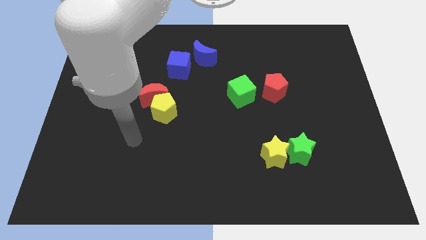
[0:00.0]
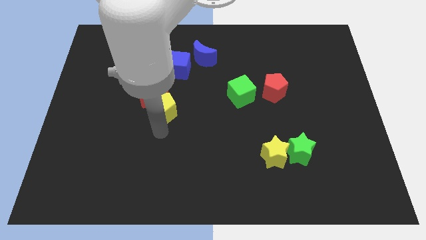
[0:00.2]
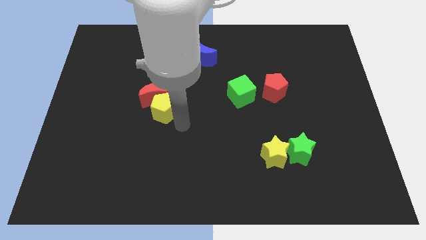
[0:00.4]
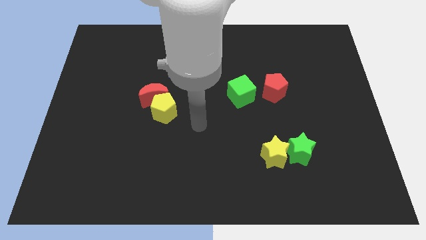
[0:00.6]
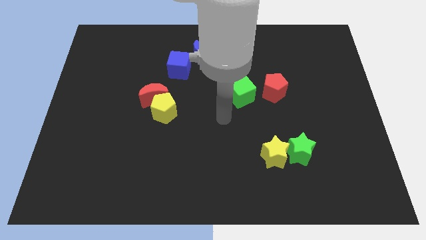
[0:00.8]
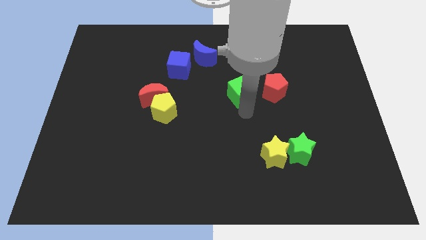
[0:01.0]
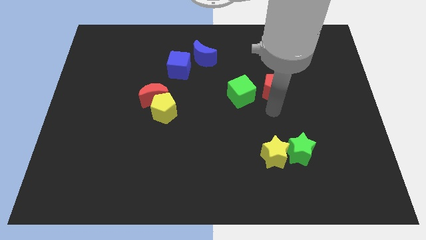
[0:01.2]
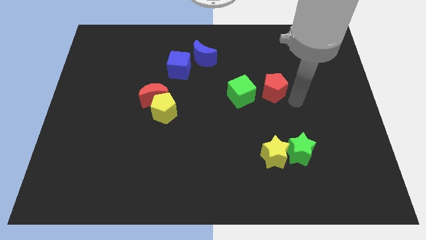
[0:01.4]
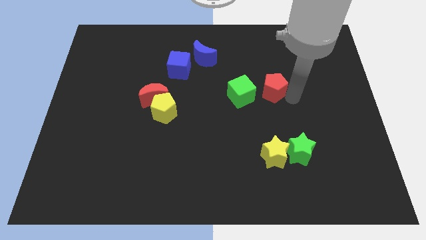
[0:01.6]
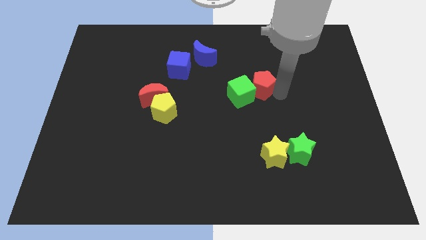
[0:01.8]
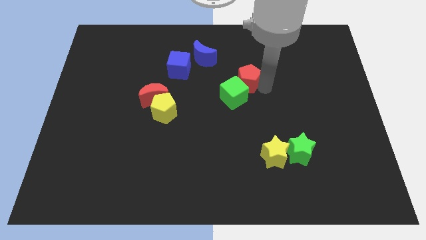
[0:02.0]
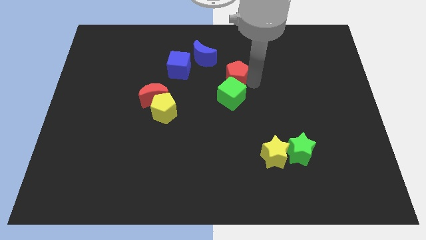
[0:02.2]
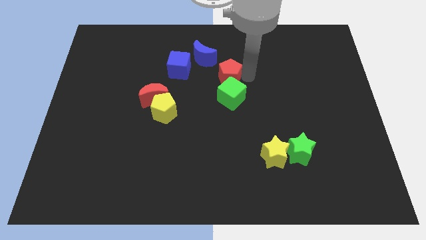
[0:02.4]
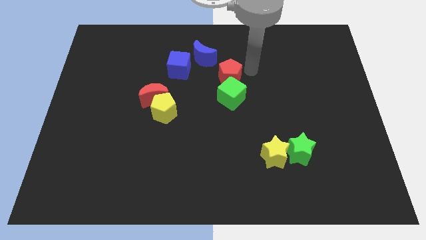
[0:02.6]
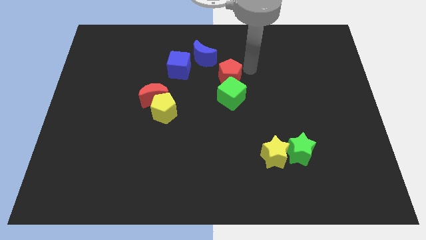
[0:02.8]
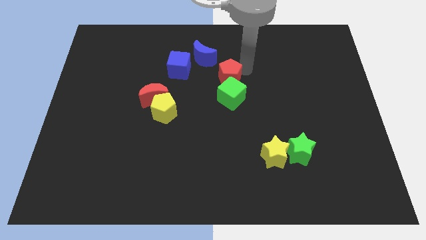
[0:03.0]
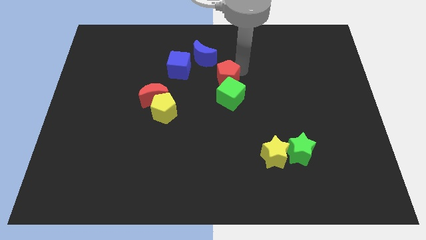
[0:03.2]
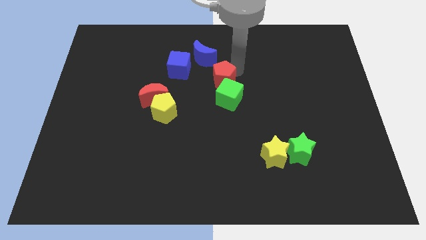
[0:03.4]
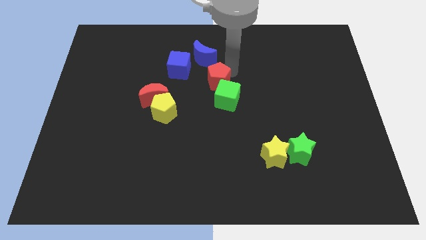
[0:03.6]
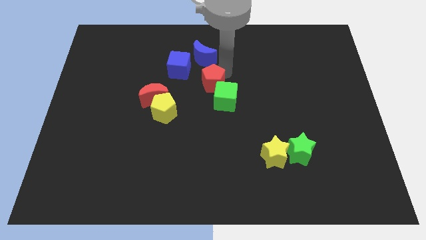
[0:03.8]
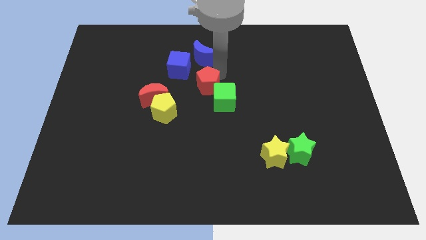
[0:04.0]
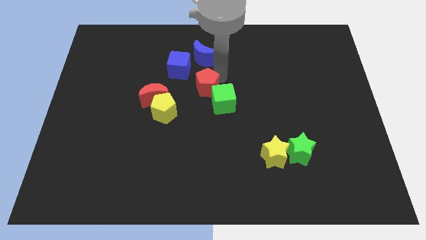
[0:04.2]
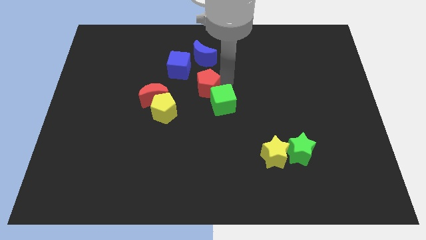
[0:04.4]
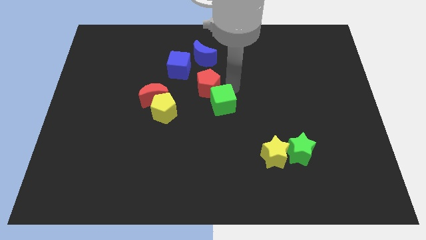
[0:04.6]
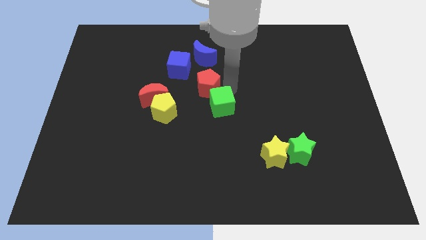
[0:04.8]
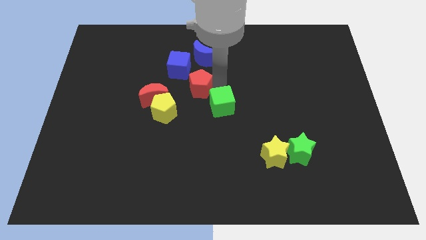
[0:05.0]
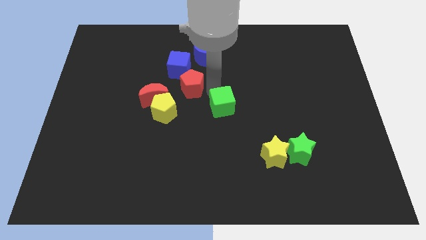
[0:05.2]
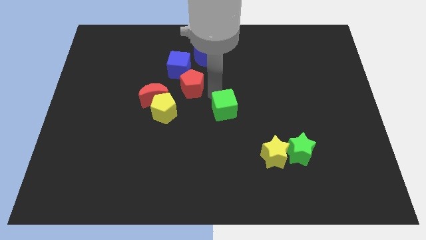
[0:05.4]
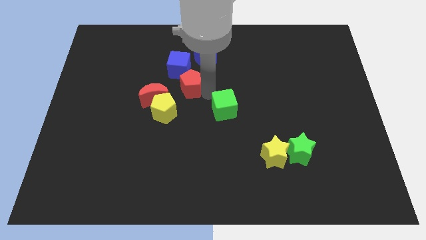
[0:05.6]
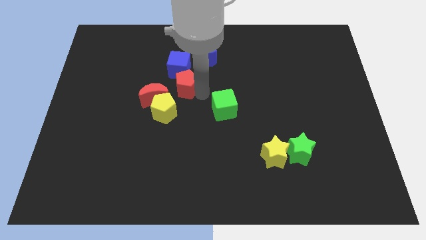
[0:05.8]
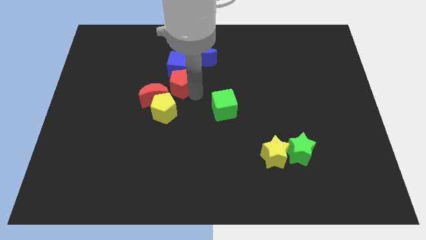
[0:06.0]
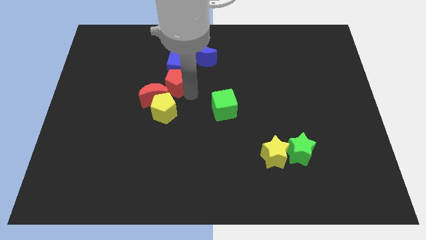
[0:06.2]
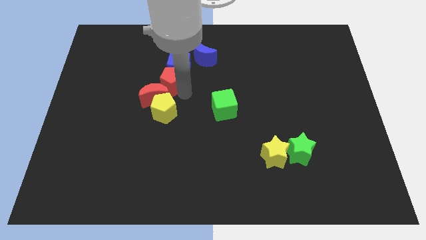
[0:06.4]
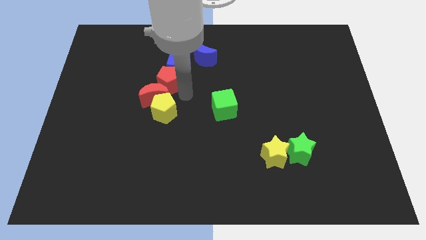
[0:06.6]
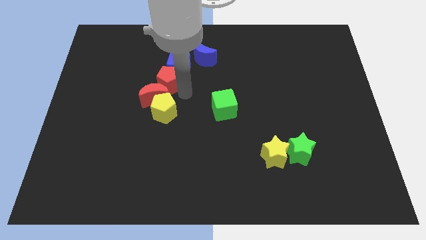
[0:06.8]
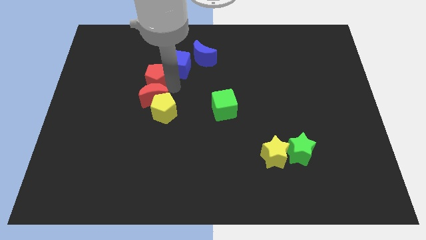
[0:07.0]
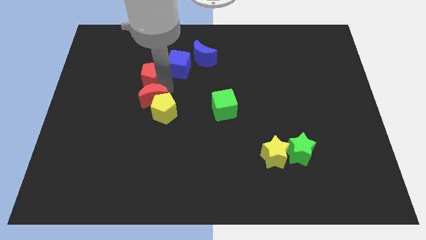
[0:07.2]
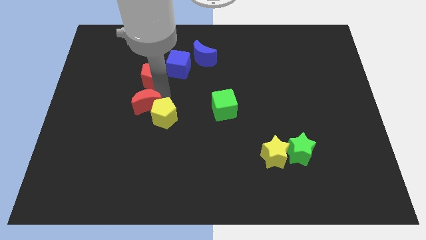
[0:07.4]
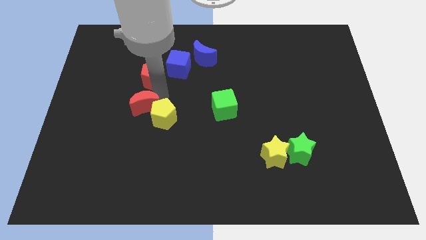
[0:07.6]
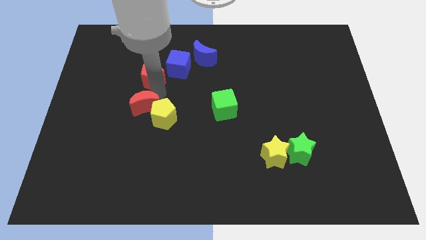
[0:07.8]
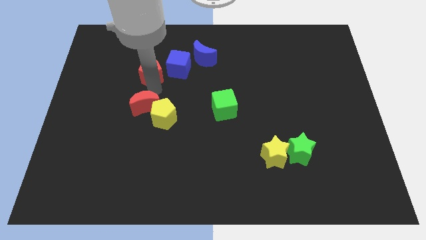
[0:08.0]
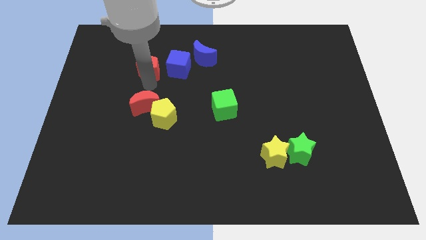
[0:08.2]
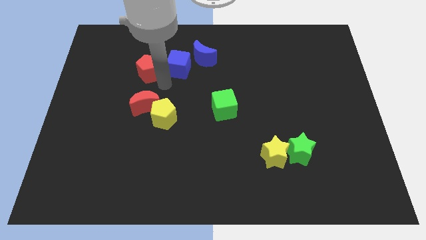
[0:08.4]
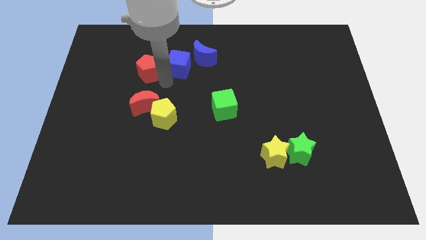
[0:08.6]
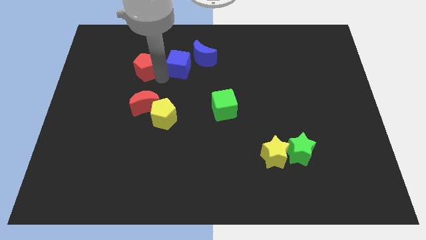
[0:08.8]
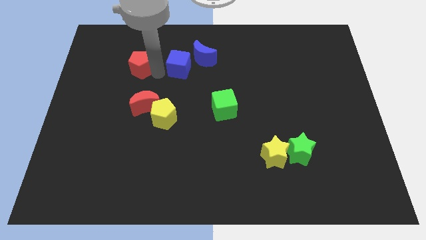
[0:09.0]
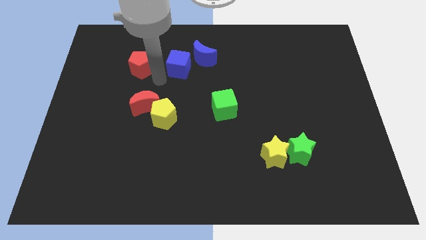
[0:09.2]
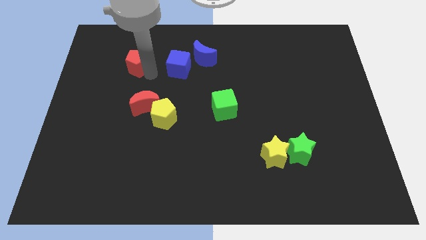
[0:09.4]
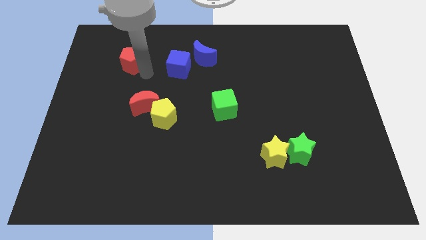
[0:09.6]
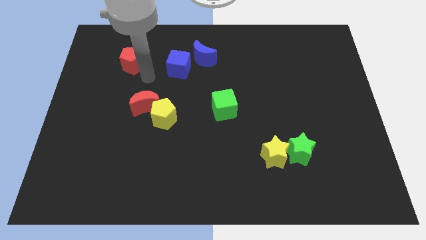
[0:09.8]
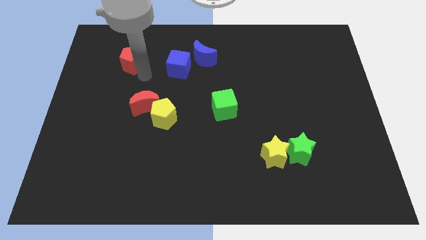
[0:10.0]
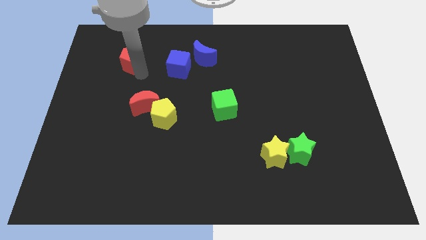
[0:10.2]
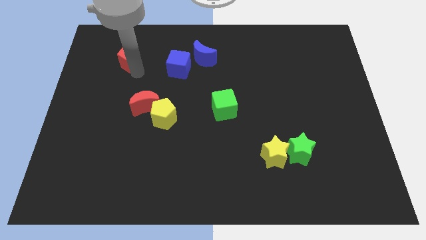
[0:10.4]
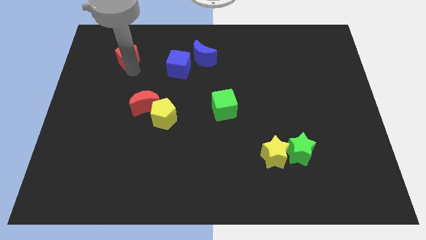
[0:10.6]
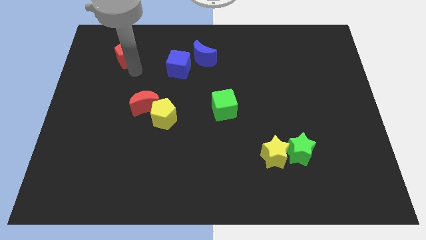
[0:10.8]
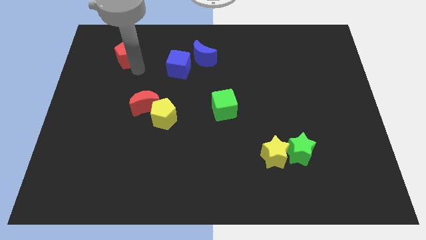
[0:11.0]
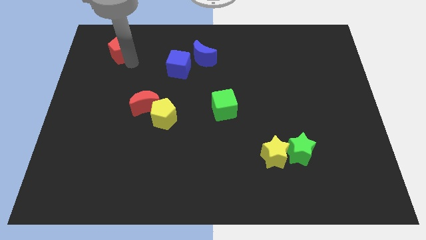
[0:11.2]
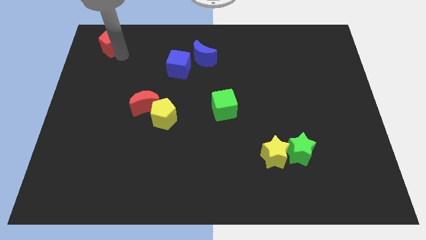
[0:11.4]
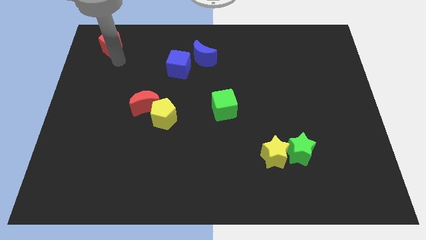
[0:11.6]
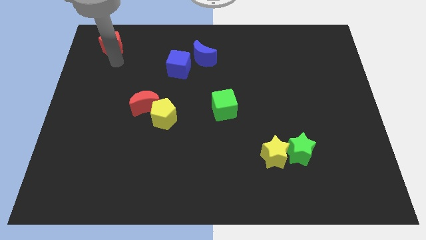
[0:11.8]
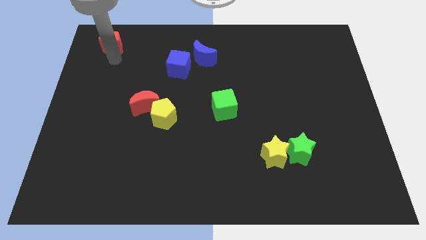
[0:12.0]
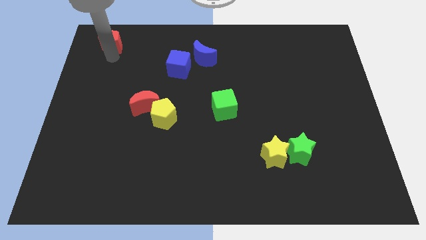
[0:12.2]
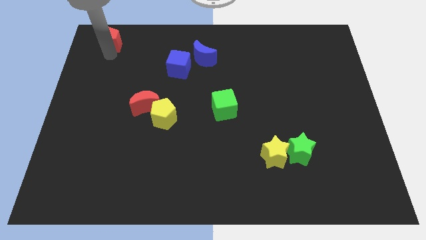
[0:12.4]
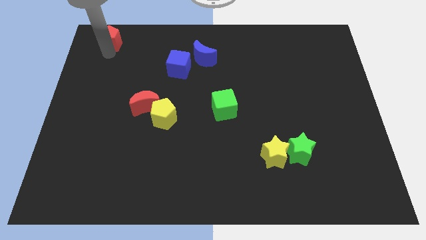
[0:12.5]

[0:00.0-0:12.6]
push the red pentagon to the top left corner

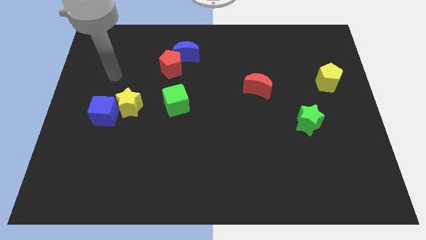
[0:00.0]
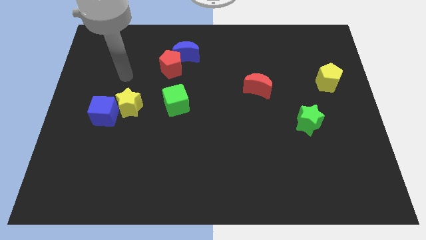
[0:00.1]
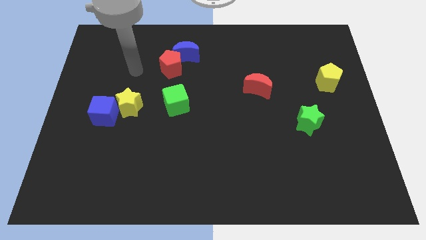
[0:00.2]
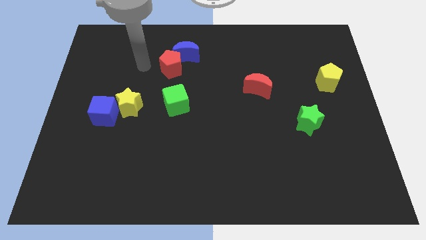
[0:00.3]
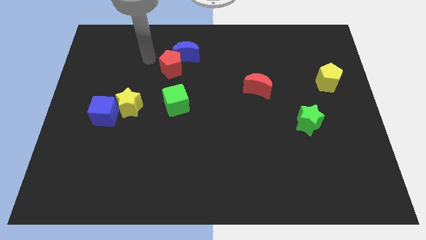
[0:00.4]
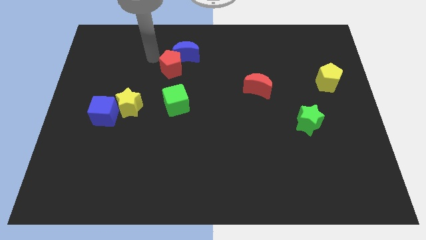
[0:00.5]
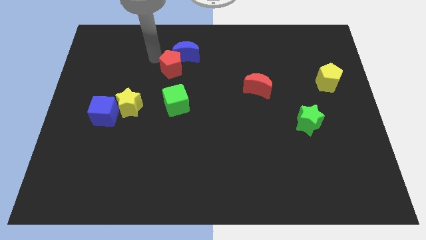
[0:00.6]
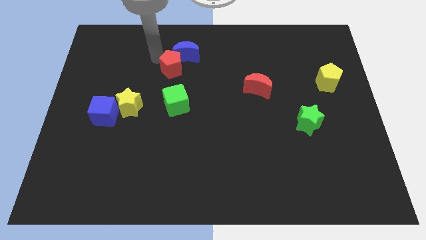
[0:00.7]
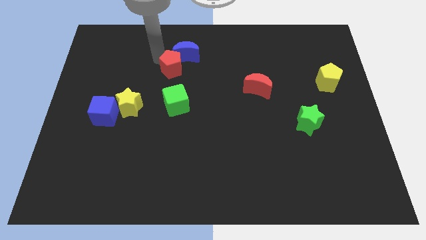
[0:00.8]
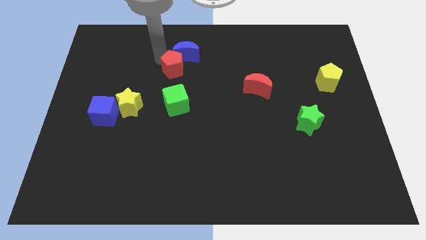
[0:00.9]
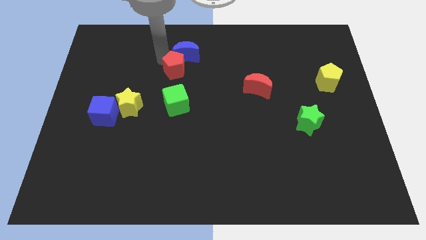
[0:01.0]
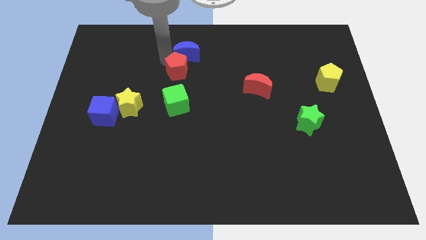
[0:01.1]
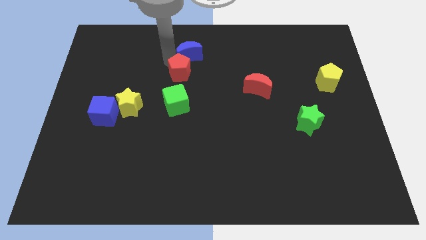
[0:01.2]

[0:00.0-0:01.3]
put the red pentagon to the middle of the board

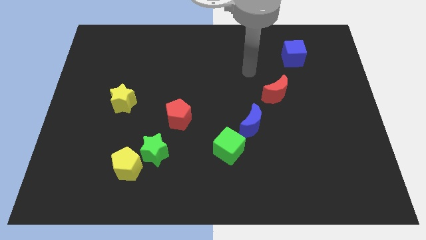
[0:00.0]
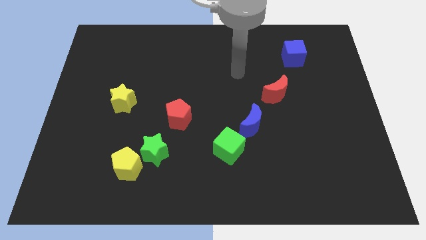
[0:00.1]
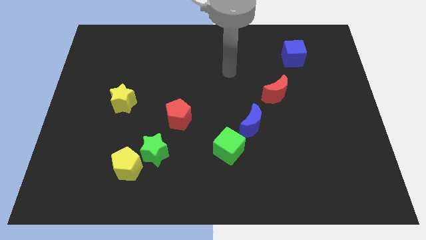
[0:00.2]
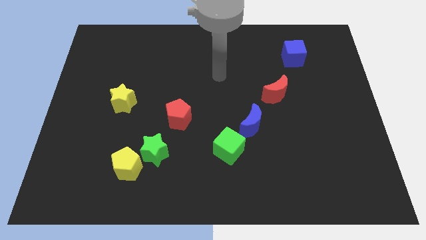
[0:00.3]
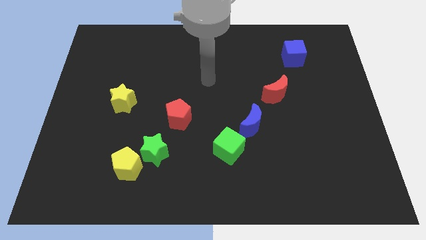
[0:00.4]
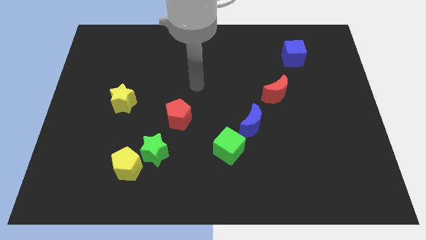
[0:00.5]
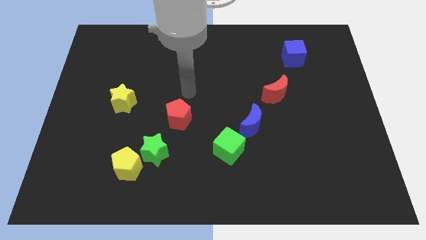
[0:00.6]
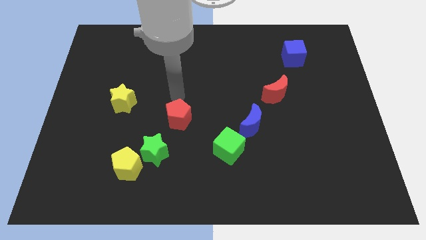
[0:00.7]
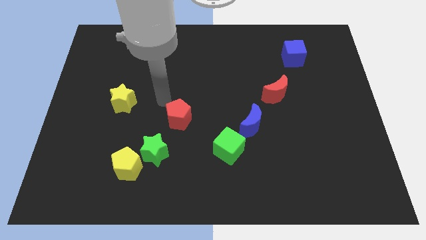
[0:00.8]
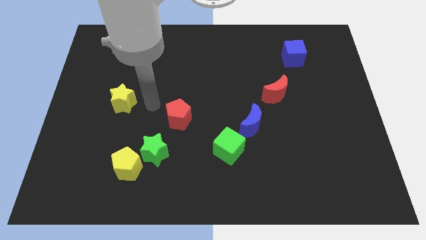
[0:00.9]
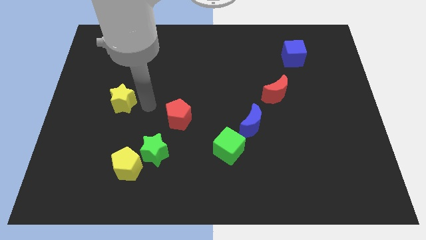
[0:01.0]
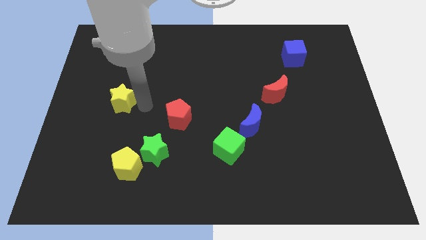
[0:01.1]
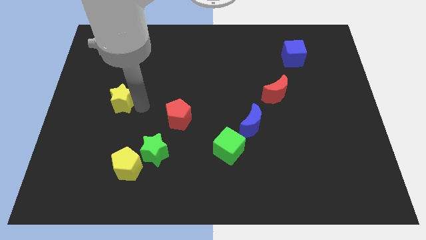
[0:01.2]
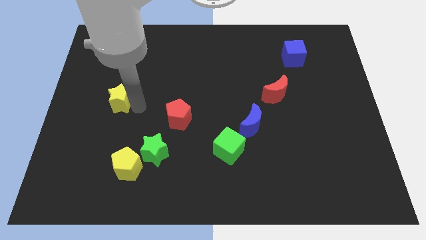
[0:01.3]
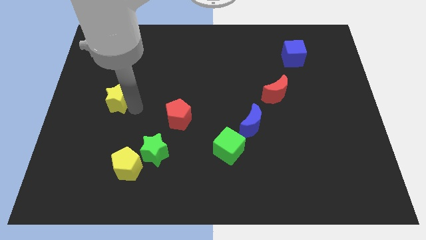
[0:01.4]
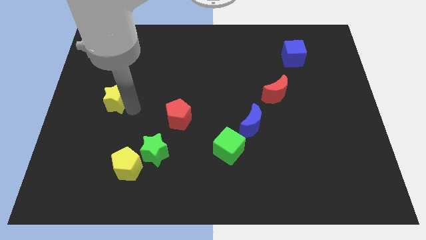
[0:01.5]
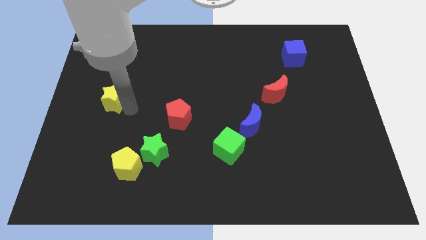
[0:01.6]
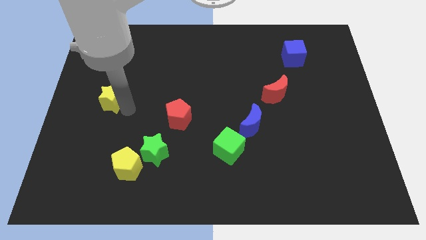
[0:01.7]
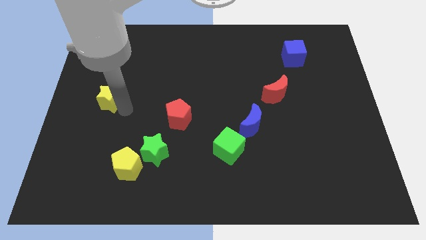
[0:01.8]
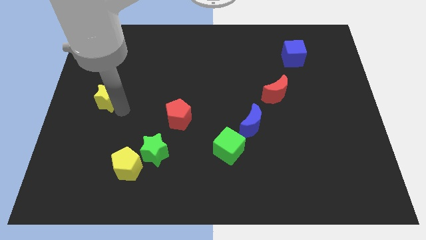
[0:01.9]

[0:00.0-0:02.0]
put the yellow star to the left side of the board
